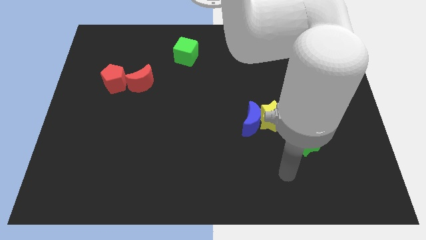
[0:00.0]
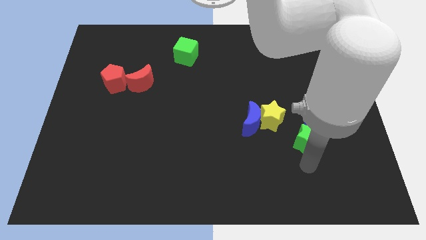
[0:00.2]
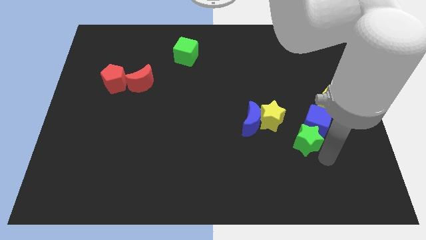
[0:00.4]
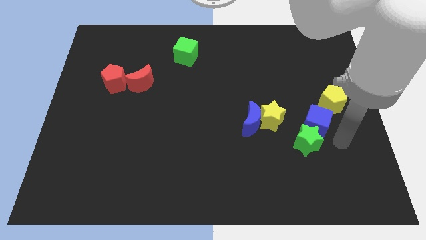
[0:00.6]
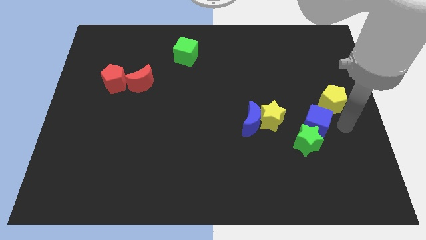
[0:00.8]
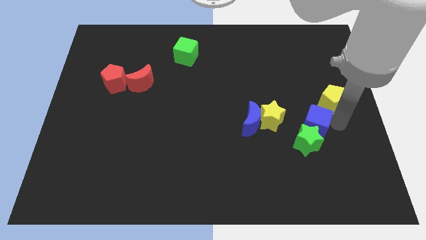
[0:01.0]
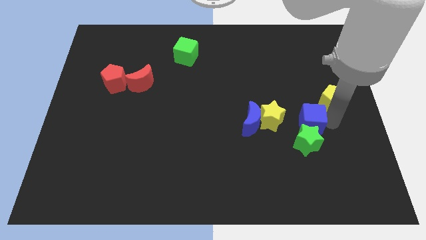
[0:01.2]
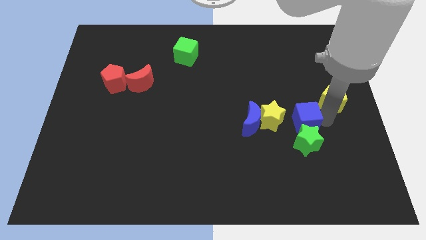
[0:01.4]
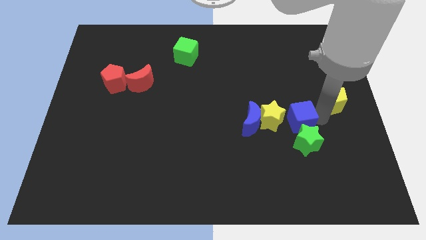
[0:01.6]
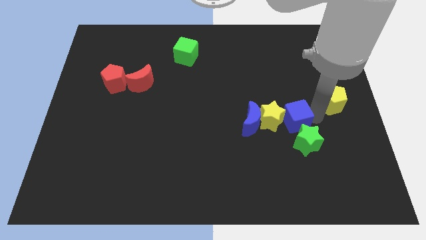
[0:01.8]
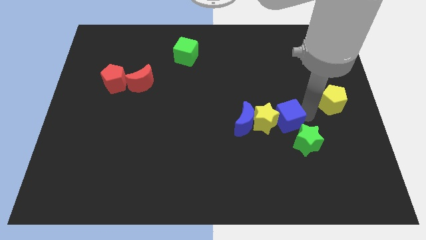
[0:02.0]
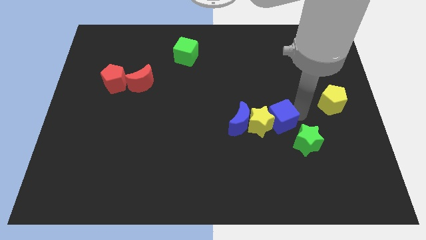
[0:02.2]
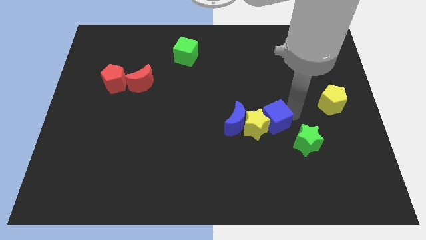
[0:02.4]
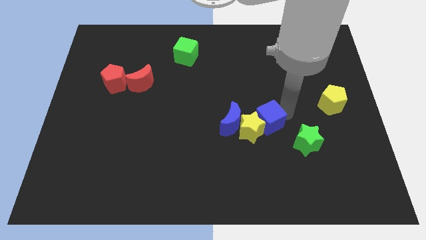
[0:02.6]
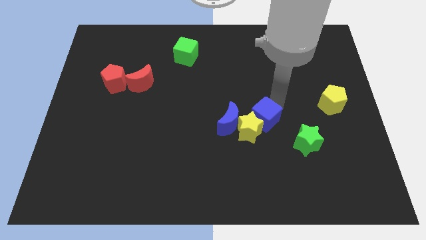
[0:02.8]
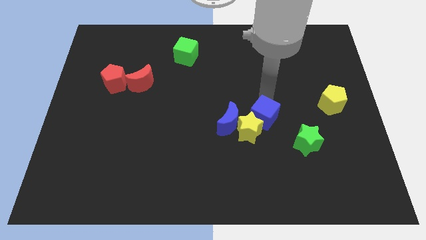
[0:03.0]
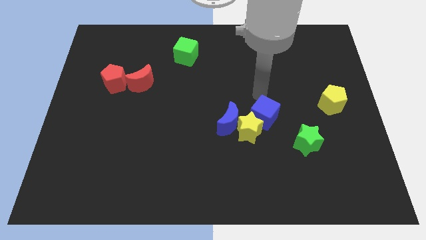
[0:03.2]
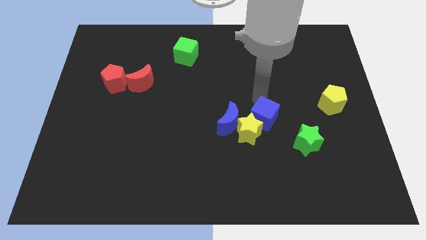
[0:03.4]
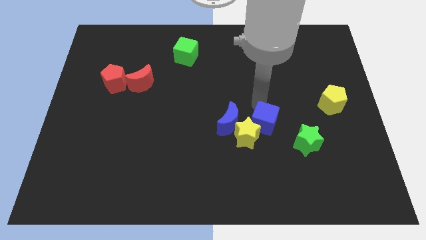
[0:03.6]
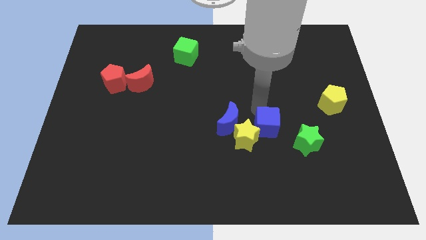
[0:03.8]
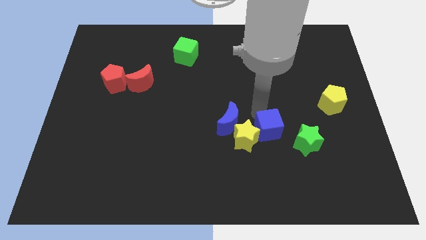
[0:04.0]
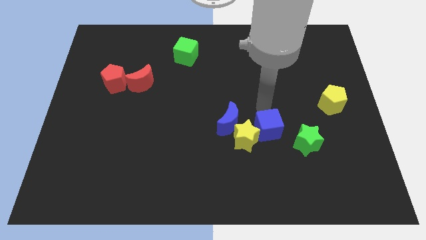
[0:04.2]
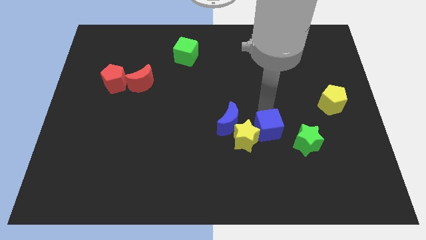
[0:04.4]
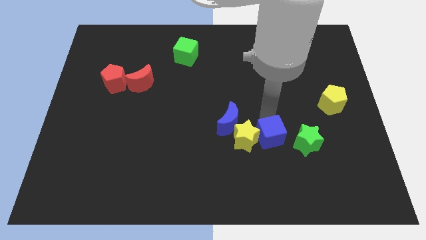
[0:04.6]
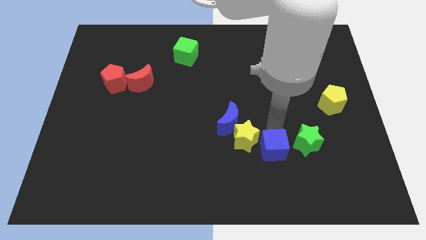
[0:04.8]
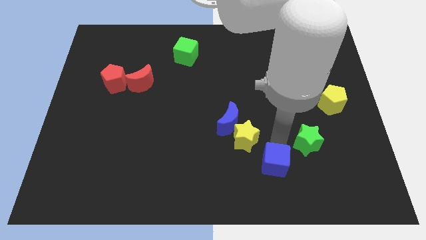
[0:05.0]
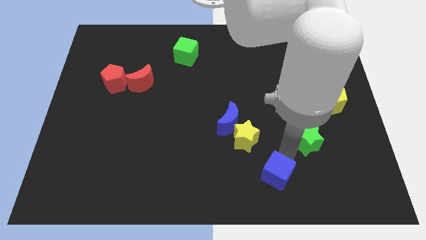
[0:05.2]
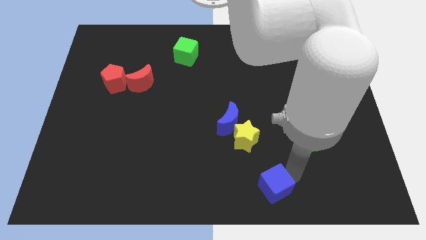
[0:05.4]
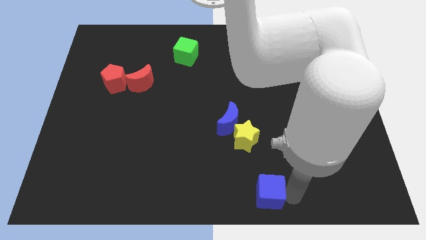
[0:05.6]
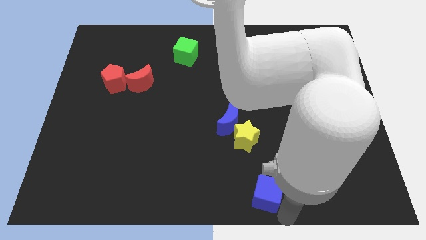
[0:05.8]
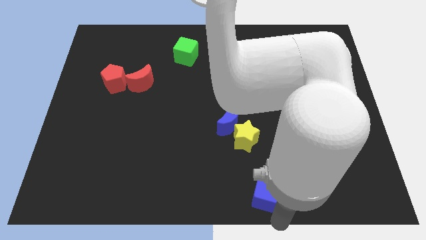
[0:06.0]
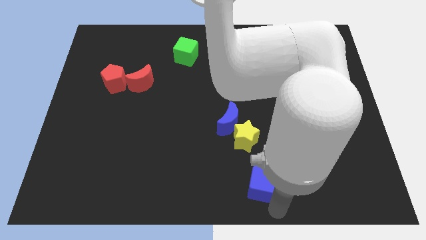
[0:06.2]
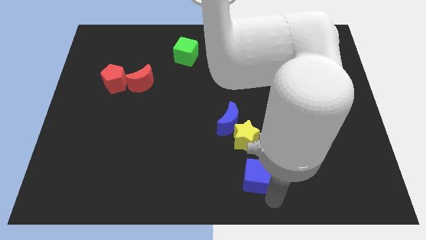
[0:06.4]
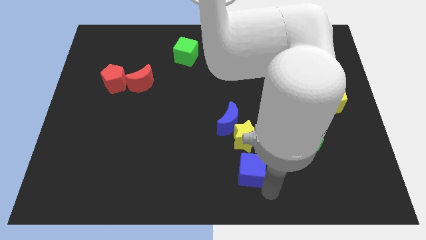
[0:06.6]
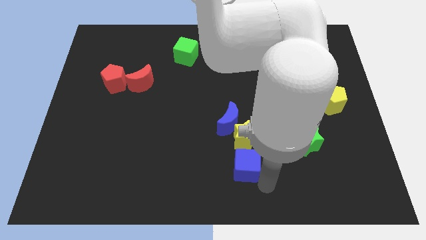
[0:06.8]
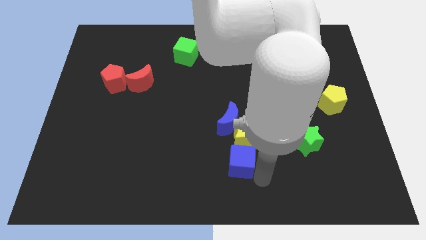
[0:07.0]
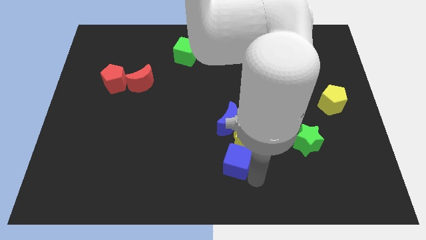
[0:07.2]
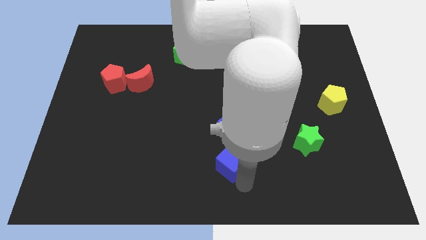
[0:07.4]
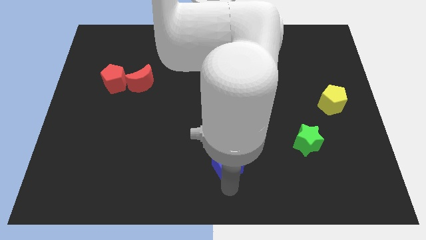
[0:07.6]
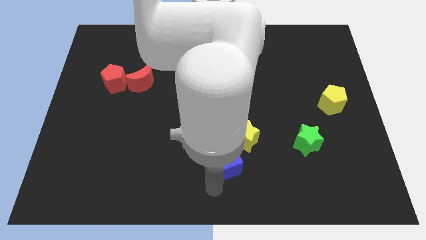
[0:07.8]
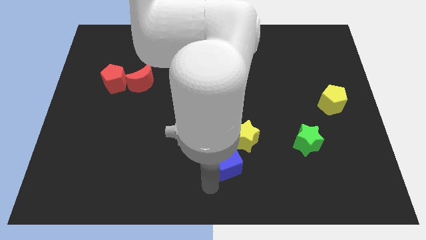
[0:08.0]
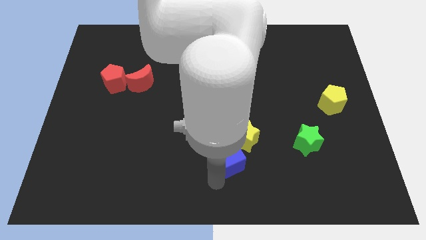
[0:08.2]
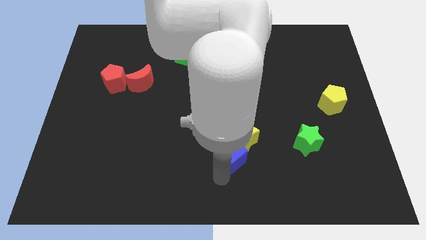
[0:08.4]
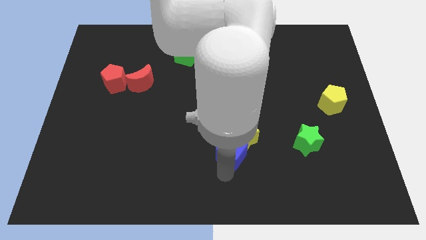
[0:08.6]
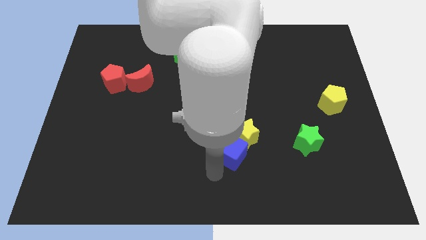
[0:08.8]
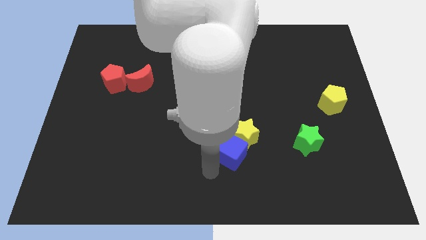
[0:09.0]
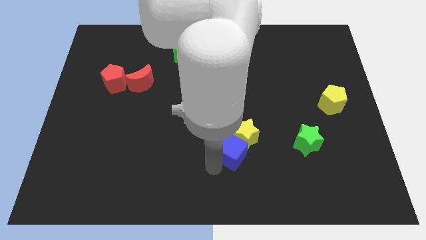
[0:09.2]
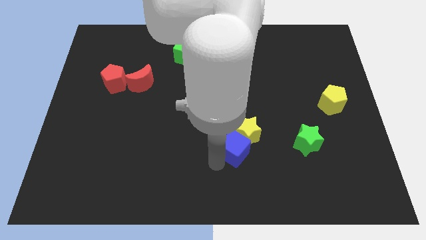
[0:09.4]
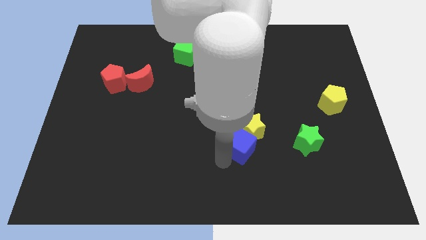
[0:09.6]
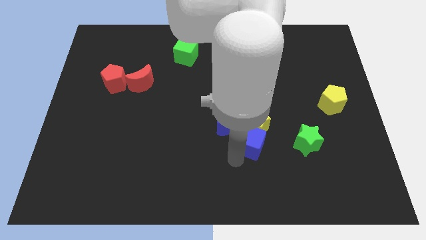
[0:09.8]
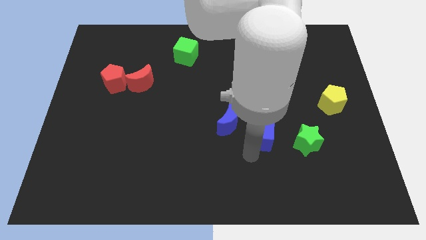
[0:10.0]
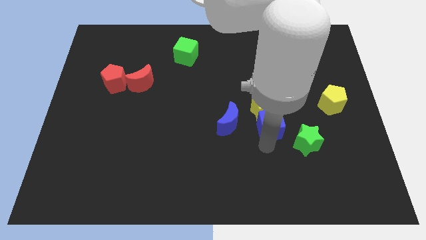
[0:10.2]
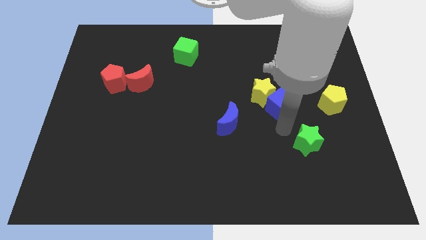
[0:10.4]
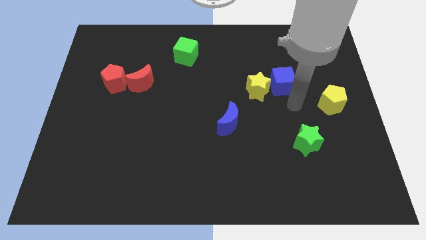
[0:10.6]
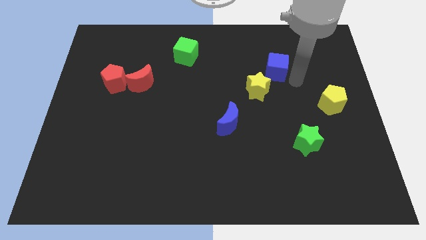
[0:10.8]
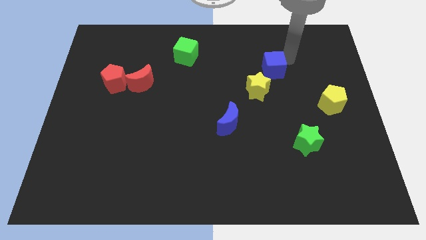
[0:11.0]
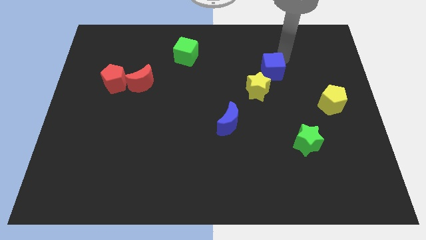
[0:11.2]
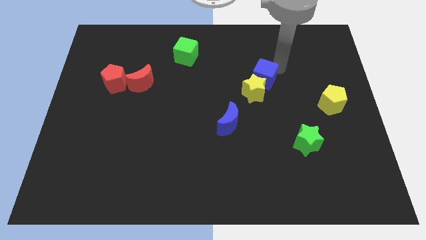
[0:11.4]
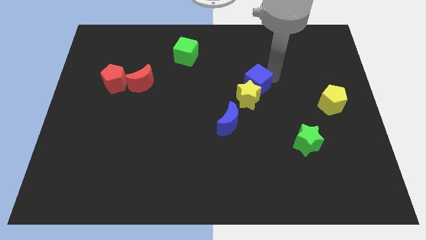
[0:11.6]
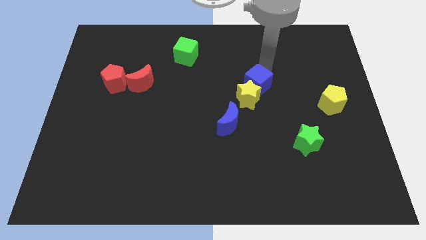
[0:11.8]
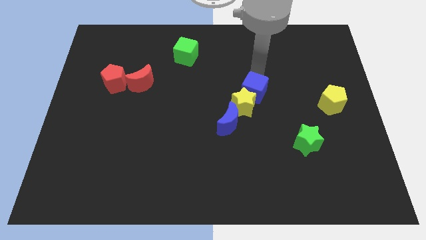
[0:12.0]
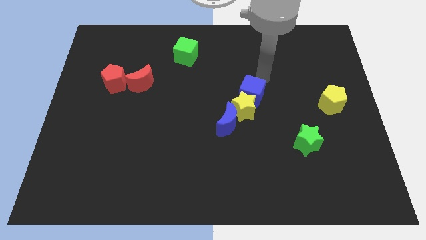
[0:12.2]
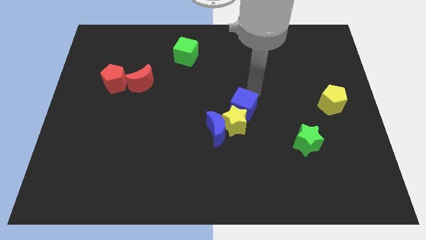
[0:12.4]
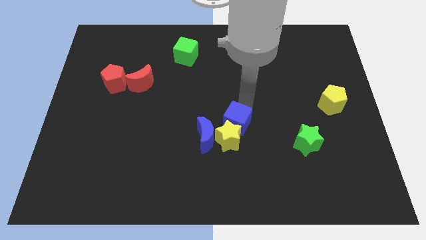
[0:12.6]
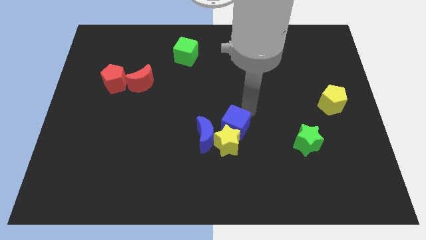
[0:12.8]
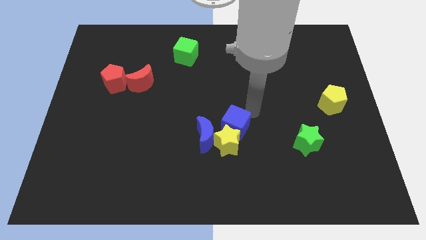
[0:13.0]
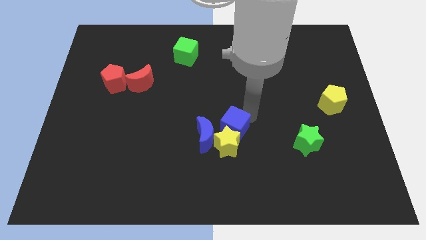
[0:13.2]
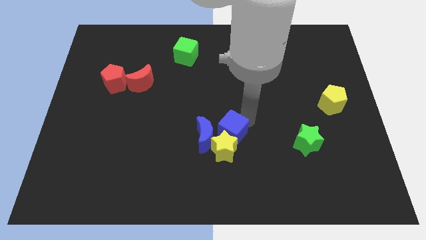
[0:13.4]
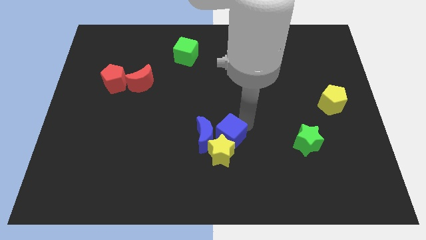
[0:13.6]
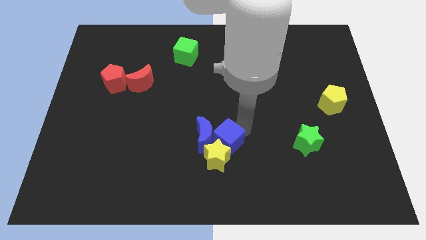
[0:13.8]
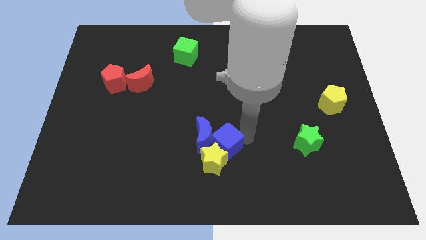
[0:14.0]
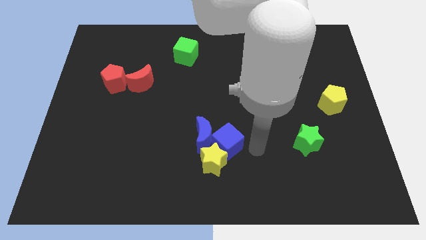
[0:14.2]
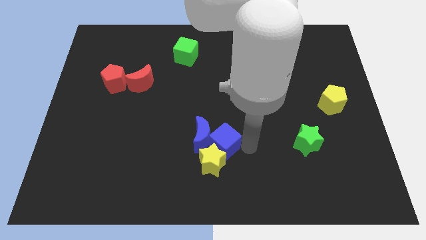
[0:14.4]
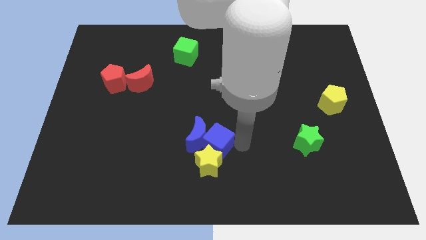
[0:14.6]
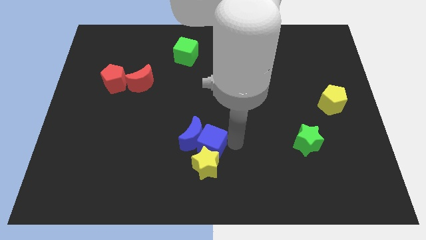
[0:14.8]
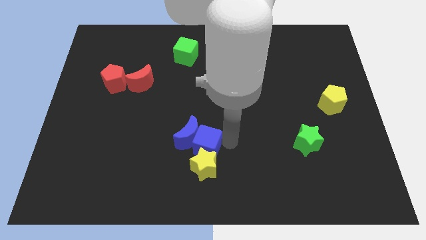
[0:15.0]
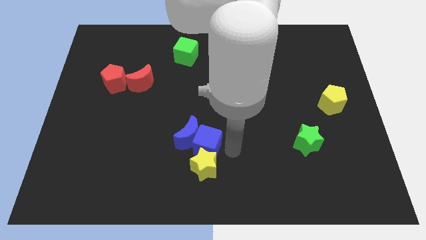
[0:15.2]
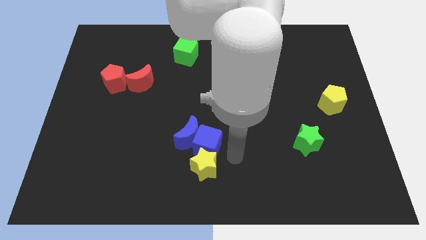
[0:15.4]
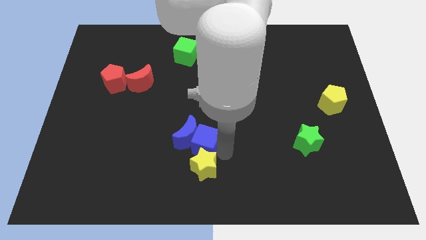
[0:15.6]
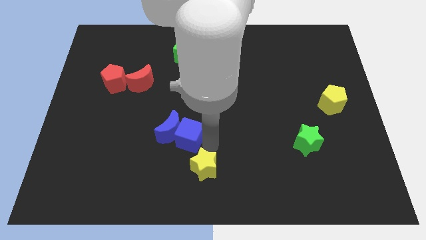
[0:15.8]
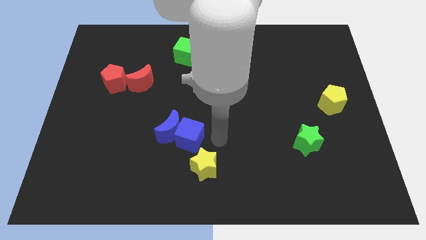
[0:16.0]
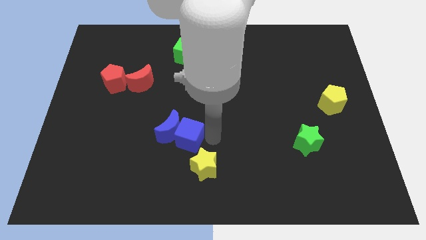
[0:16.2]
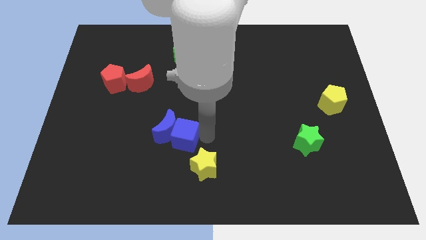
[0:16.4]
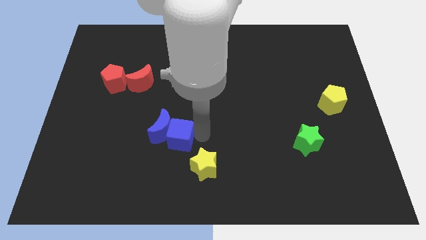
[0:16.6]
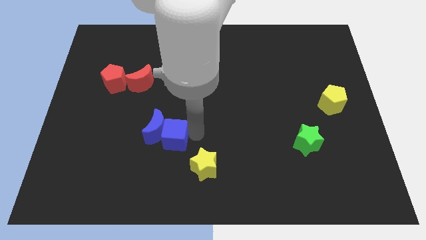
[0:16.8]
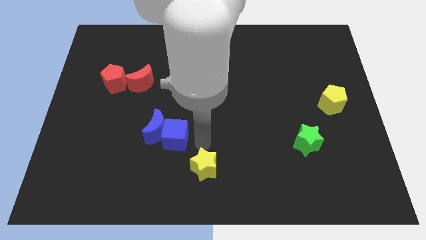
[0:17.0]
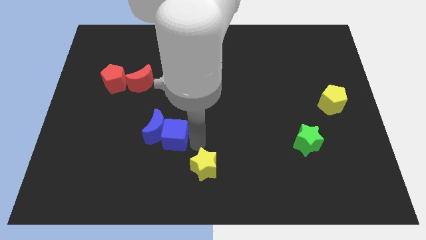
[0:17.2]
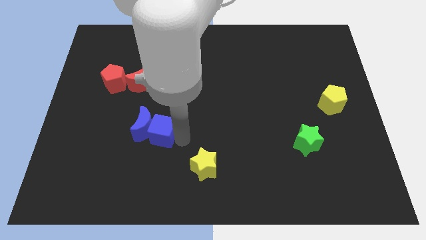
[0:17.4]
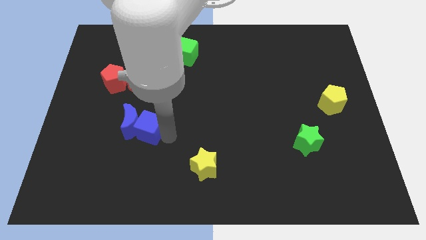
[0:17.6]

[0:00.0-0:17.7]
slide the blue cube below the red moon
